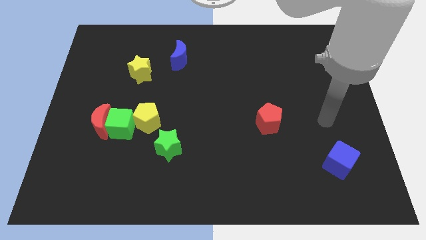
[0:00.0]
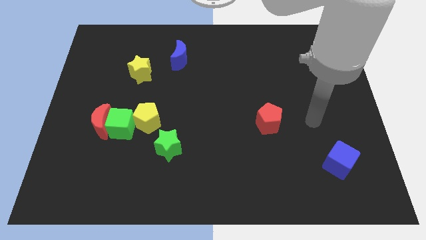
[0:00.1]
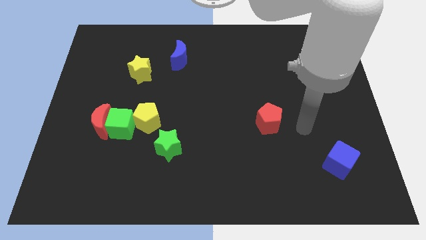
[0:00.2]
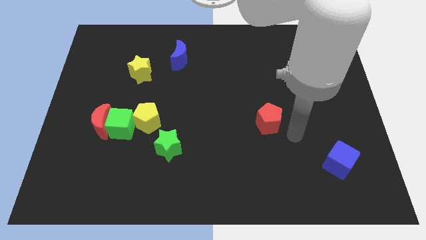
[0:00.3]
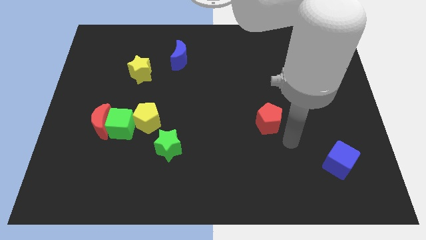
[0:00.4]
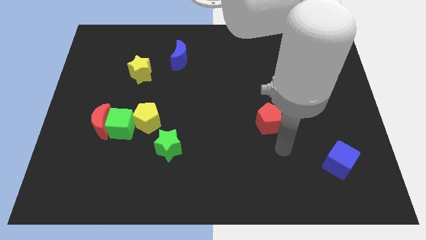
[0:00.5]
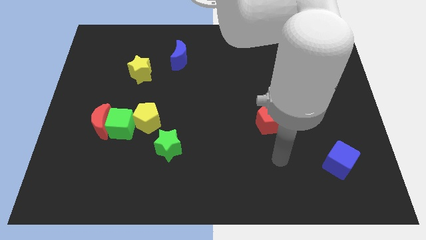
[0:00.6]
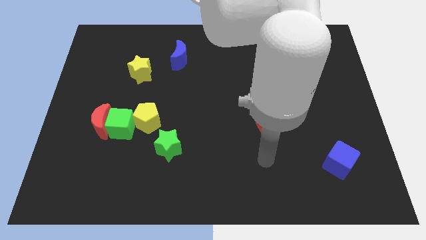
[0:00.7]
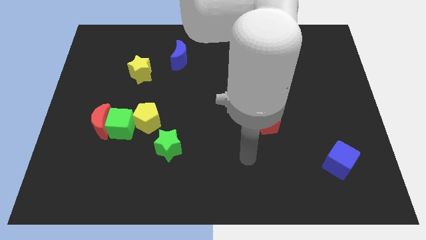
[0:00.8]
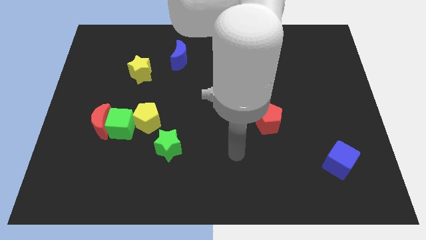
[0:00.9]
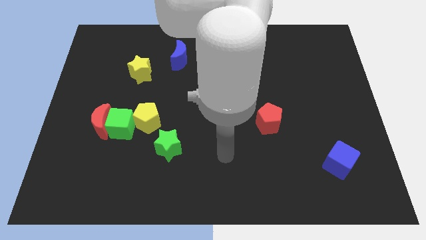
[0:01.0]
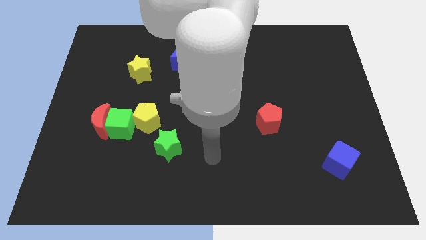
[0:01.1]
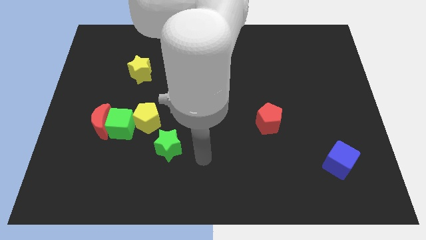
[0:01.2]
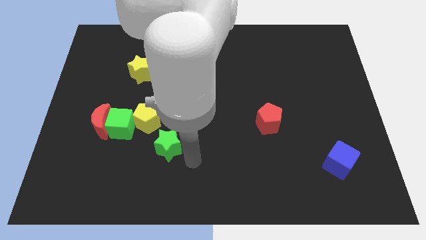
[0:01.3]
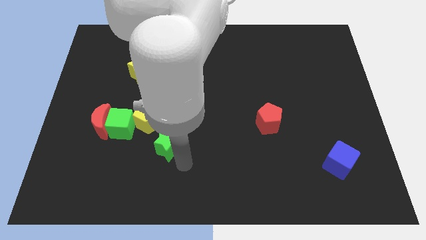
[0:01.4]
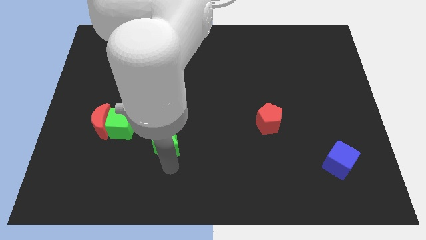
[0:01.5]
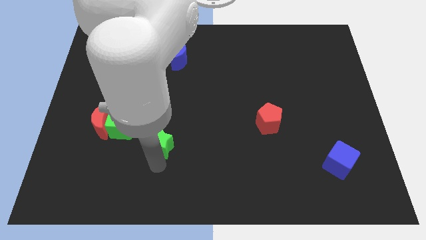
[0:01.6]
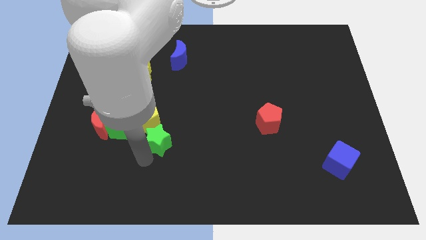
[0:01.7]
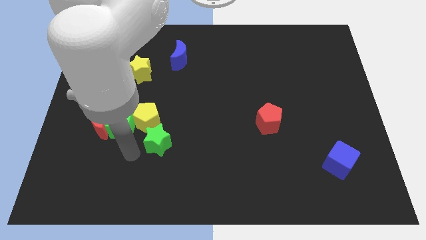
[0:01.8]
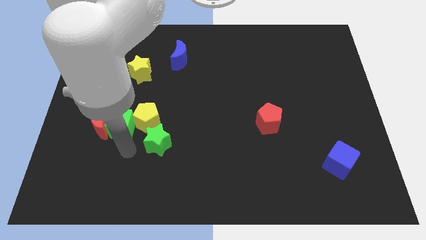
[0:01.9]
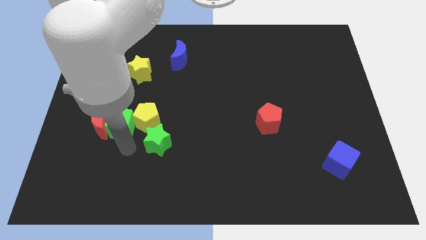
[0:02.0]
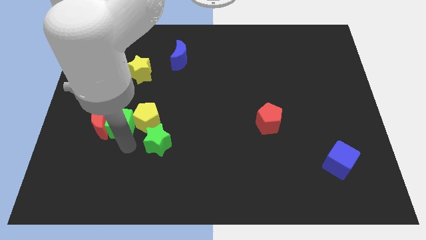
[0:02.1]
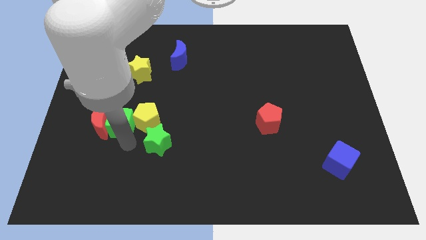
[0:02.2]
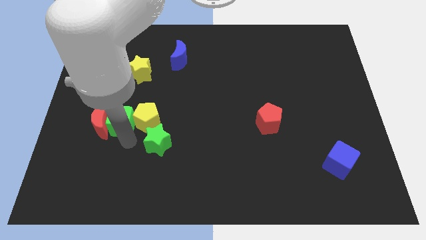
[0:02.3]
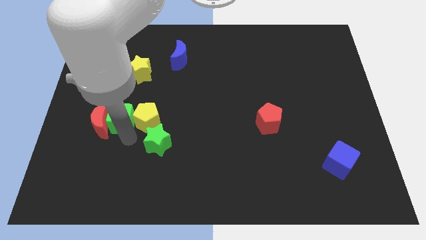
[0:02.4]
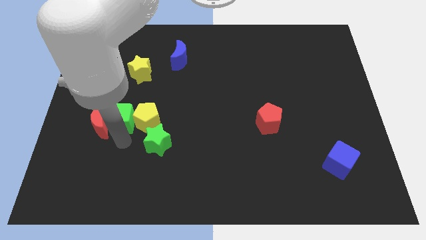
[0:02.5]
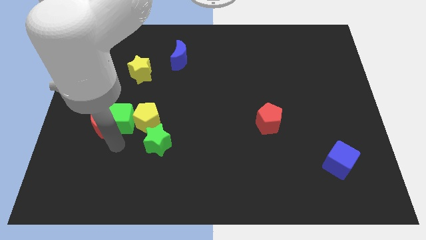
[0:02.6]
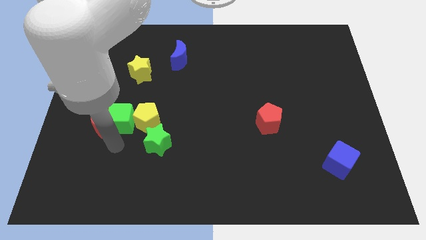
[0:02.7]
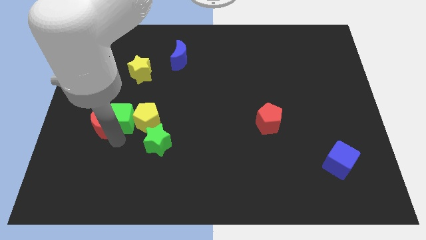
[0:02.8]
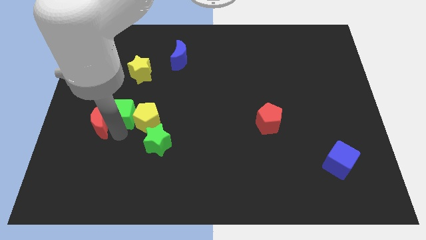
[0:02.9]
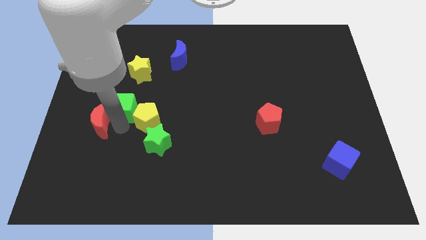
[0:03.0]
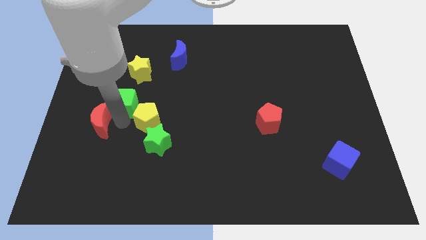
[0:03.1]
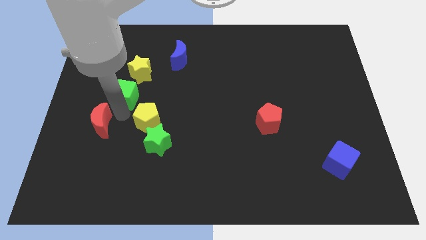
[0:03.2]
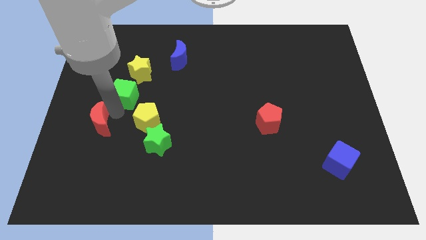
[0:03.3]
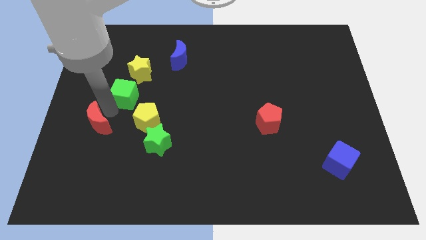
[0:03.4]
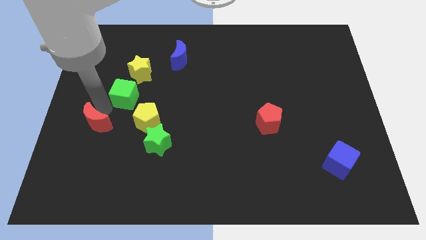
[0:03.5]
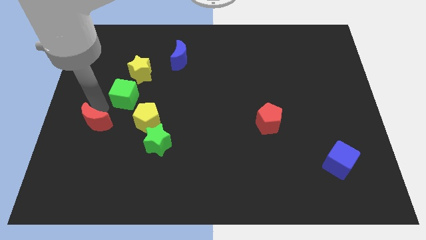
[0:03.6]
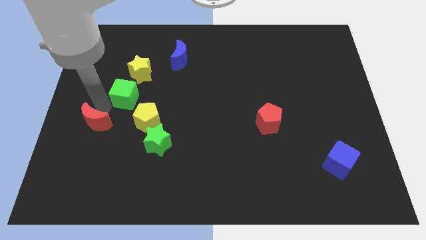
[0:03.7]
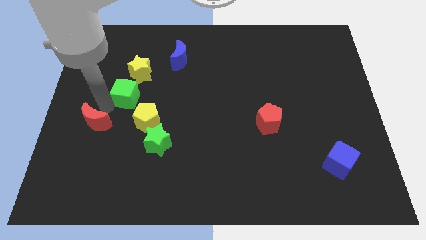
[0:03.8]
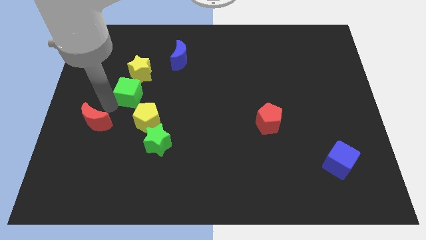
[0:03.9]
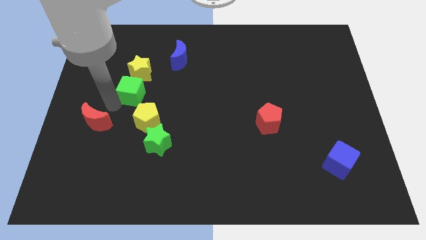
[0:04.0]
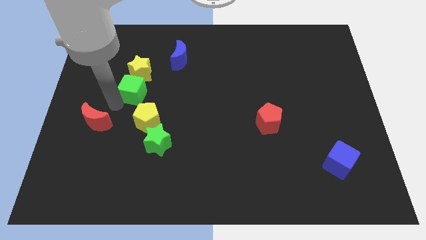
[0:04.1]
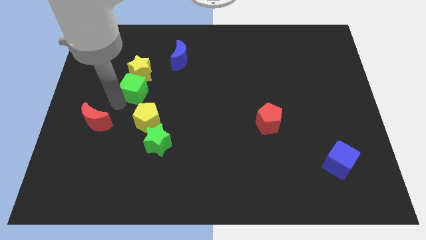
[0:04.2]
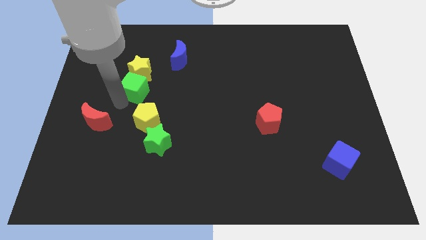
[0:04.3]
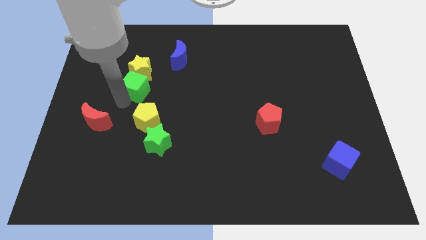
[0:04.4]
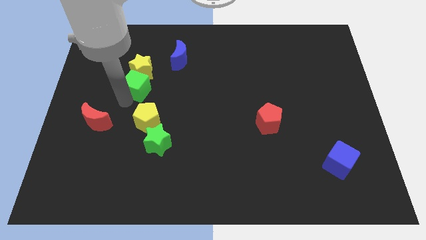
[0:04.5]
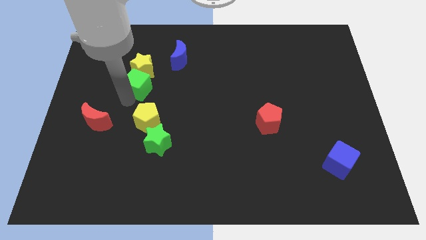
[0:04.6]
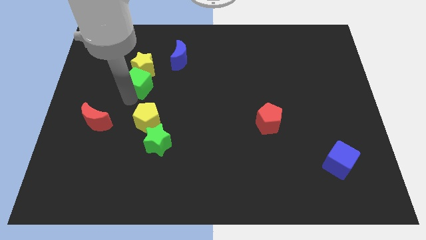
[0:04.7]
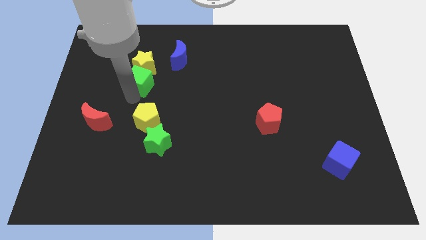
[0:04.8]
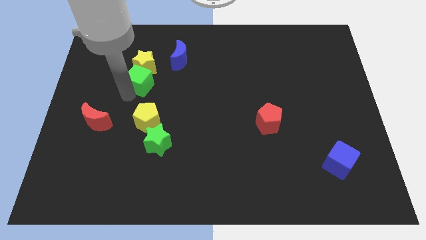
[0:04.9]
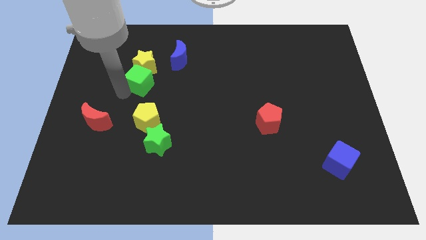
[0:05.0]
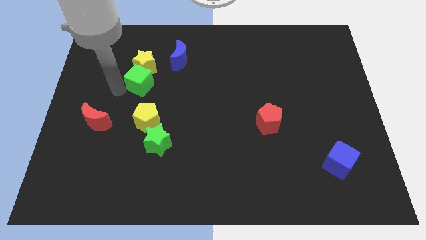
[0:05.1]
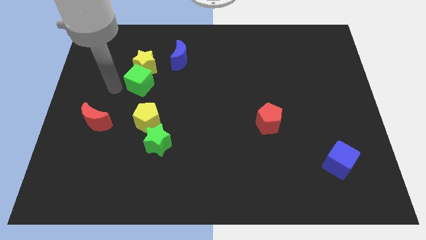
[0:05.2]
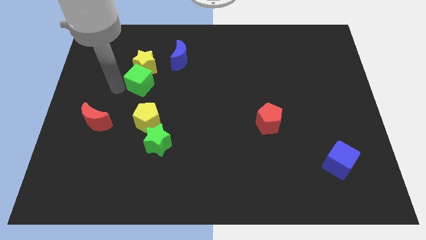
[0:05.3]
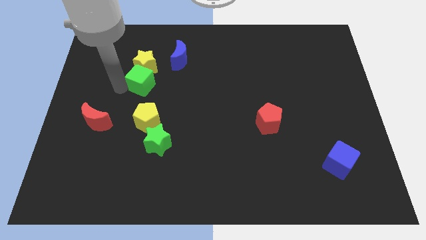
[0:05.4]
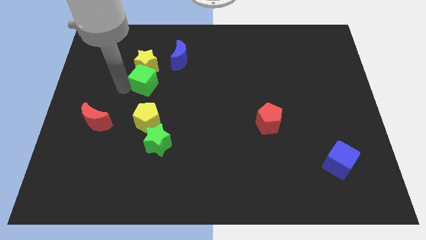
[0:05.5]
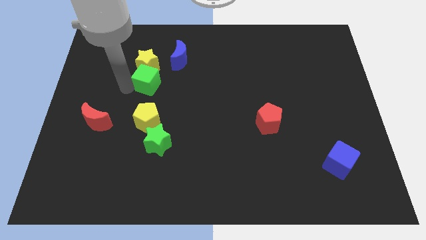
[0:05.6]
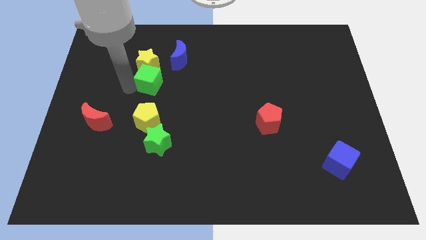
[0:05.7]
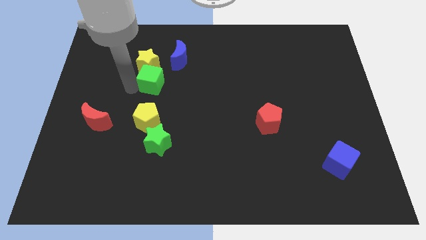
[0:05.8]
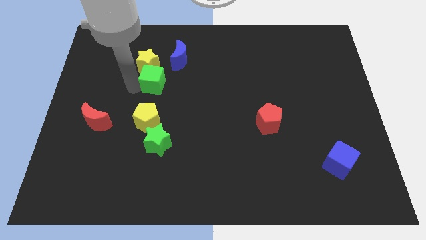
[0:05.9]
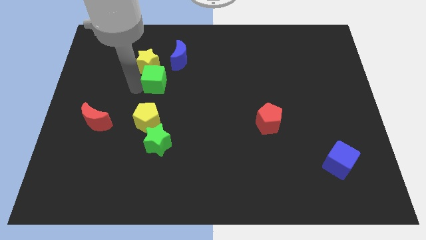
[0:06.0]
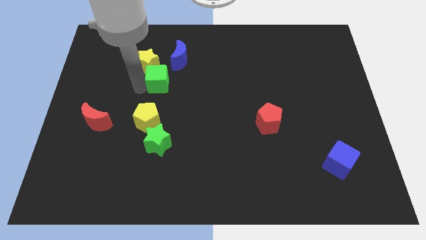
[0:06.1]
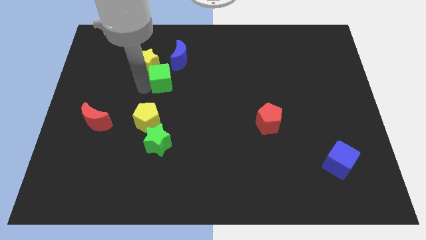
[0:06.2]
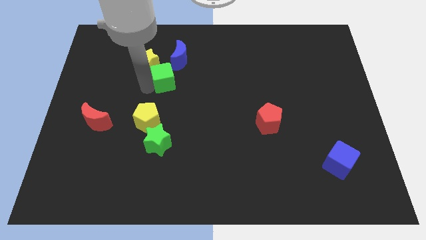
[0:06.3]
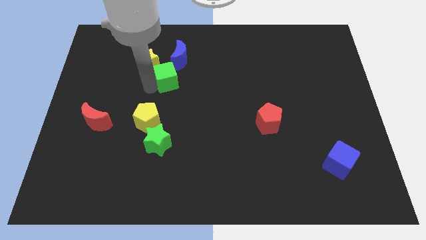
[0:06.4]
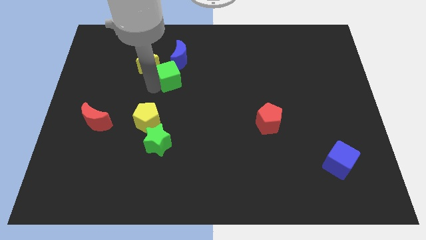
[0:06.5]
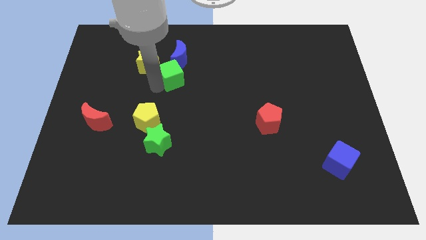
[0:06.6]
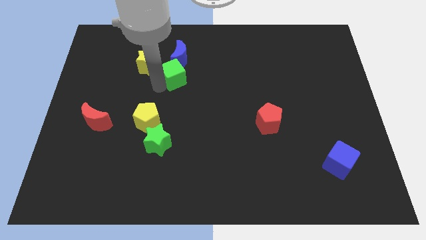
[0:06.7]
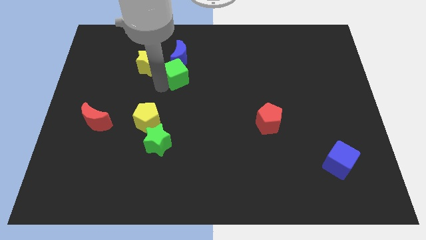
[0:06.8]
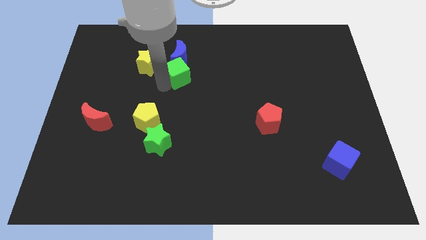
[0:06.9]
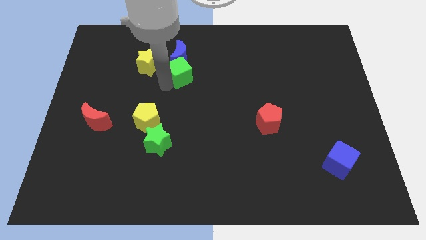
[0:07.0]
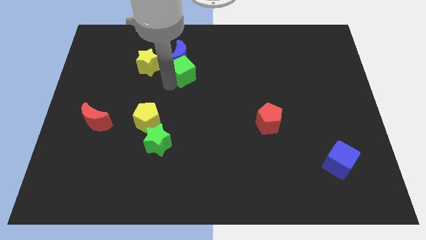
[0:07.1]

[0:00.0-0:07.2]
move the green cube upwards and then to the right

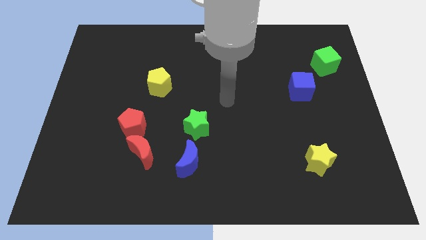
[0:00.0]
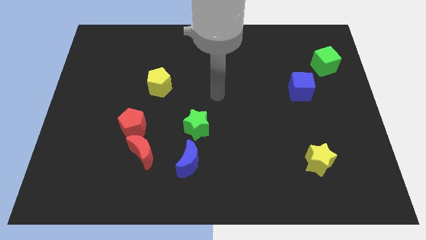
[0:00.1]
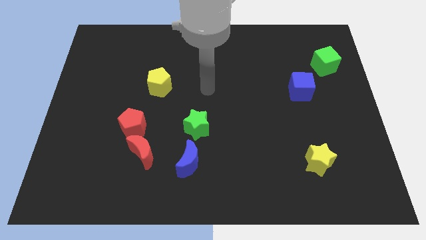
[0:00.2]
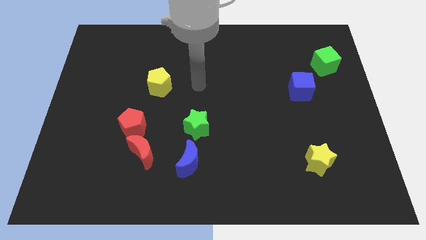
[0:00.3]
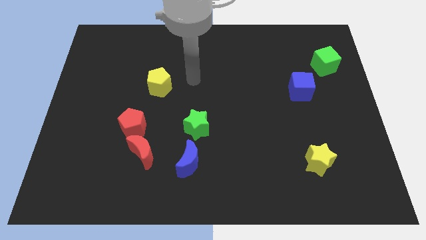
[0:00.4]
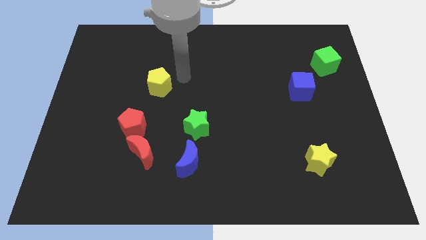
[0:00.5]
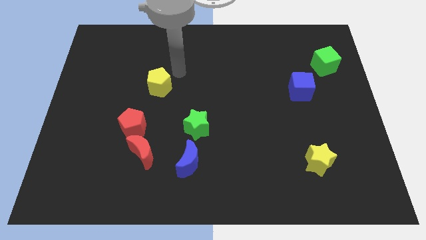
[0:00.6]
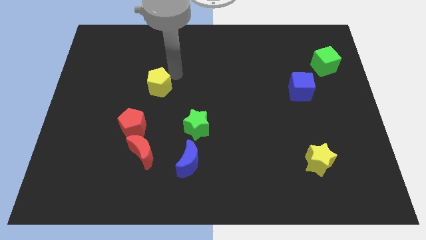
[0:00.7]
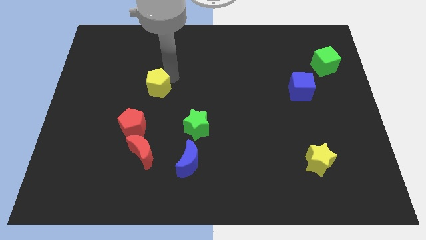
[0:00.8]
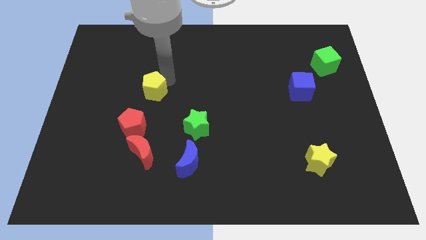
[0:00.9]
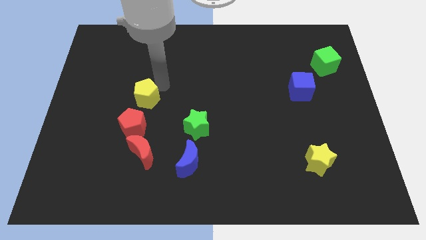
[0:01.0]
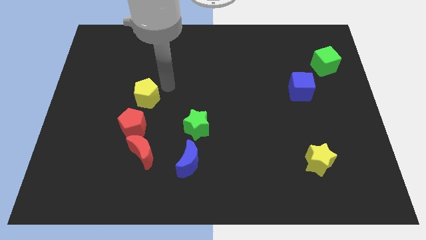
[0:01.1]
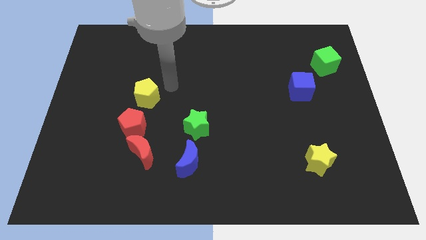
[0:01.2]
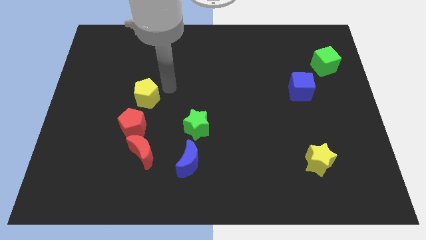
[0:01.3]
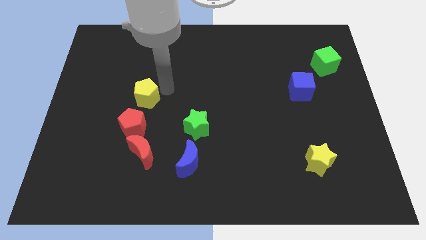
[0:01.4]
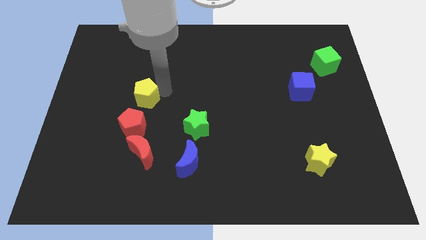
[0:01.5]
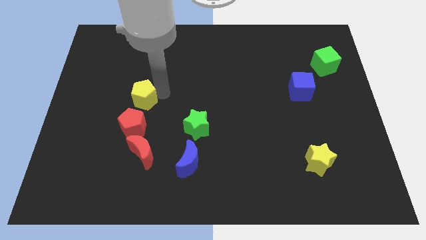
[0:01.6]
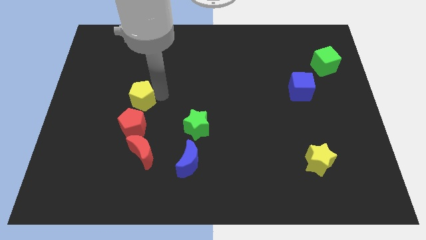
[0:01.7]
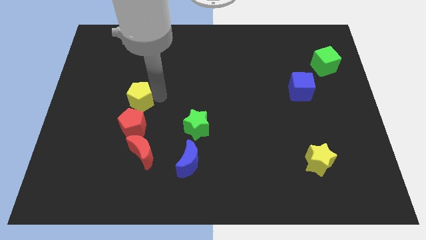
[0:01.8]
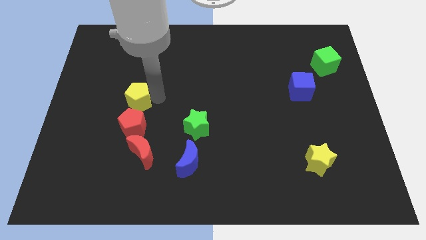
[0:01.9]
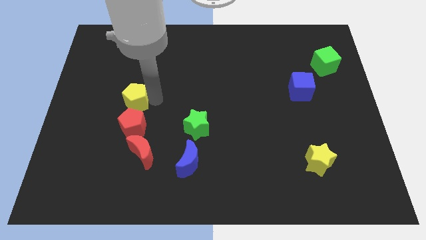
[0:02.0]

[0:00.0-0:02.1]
slightly push the yellow pentagon down and to the left
